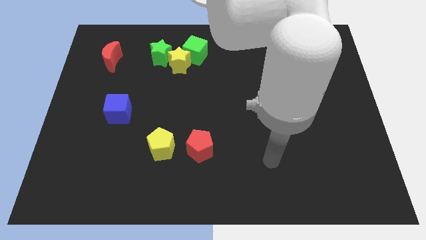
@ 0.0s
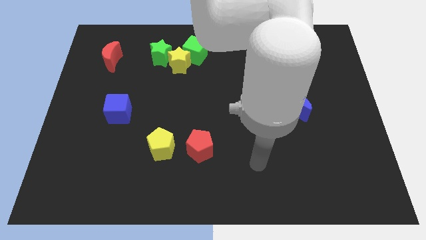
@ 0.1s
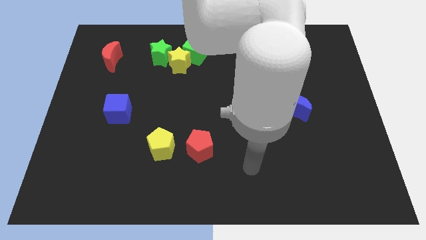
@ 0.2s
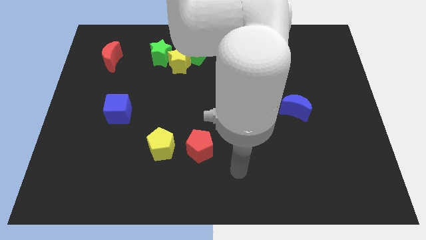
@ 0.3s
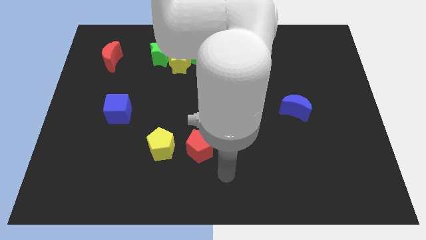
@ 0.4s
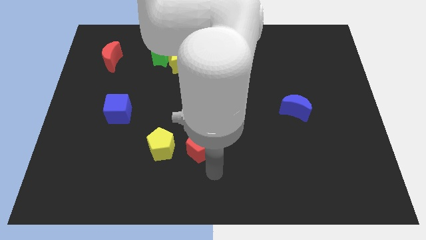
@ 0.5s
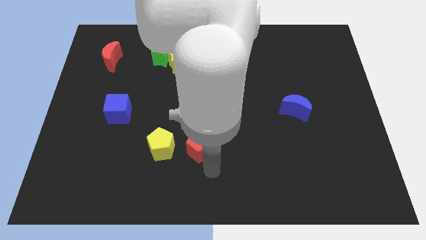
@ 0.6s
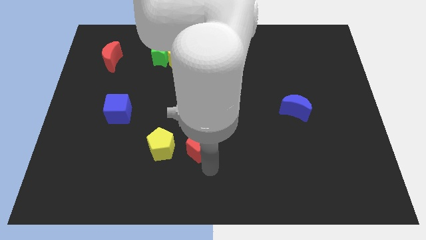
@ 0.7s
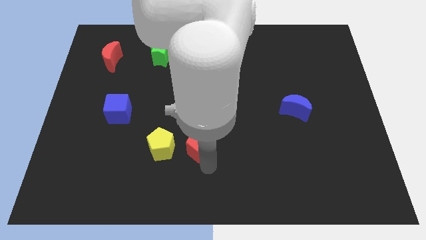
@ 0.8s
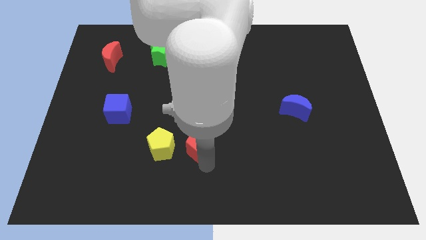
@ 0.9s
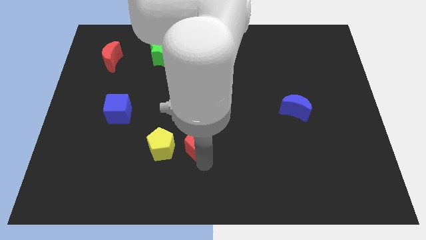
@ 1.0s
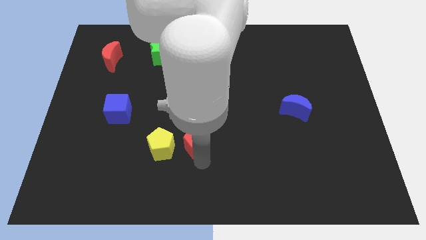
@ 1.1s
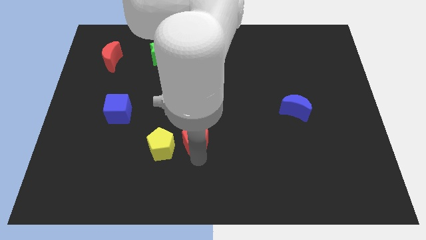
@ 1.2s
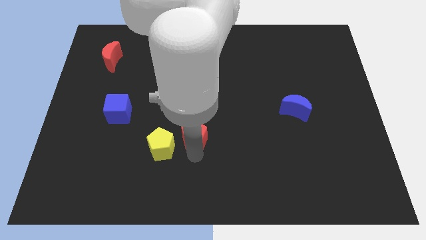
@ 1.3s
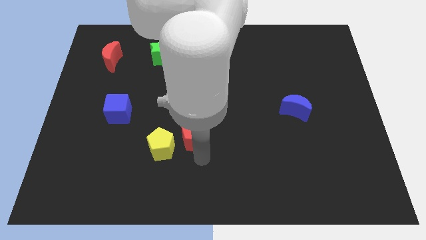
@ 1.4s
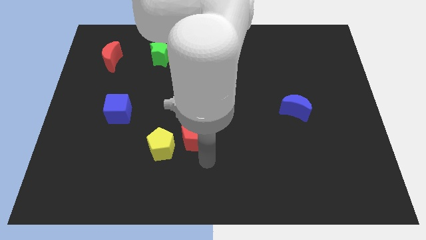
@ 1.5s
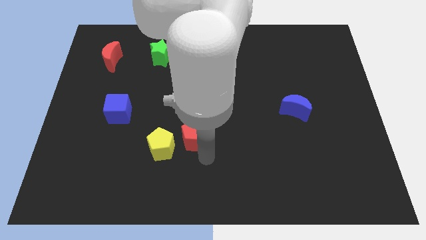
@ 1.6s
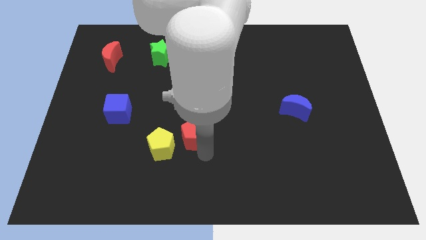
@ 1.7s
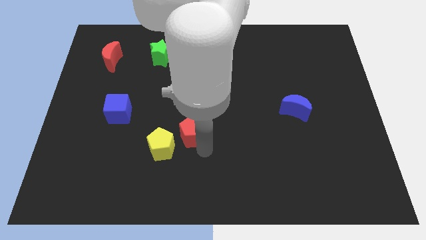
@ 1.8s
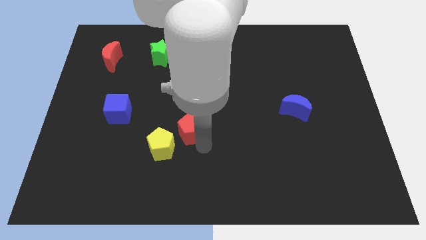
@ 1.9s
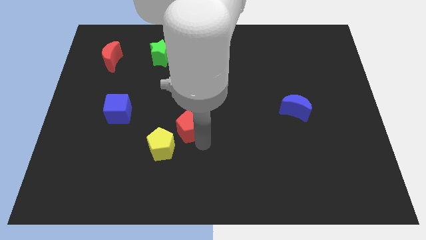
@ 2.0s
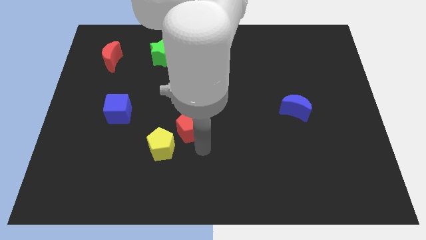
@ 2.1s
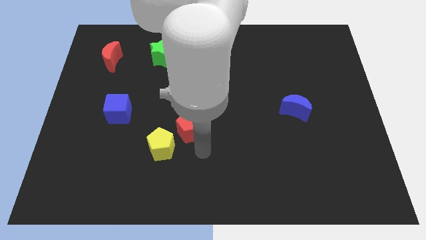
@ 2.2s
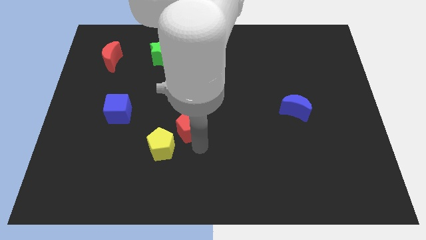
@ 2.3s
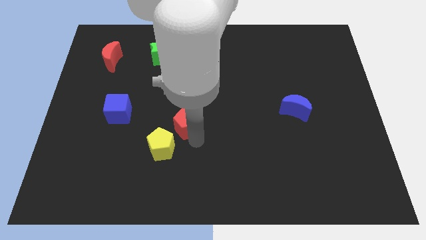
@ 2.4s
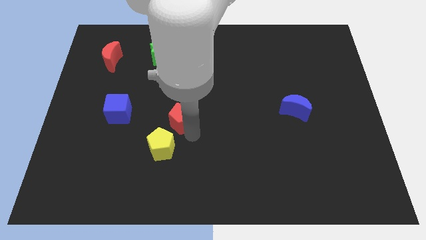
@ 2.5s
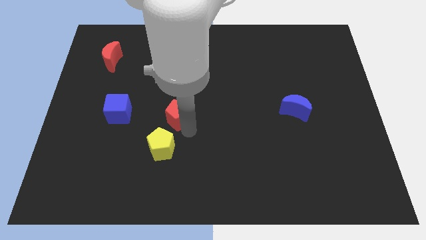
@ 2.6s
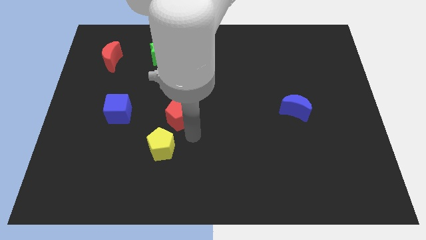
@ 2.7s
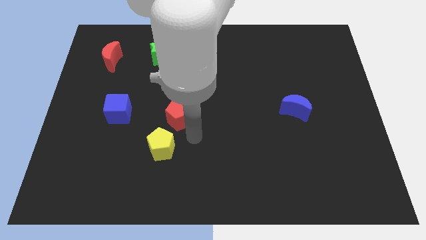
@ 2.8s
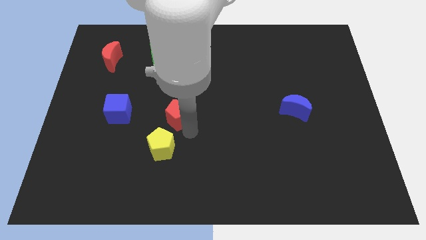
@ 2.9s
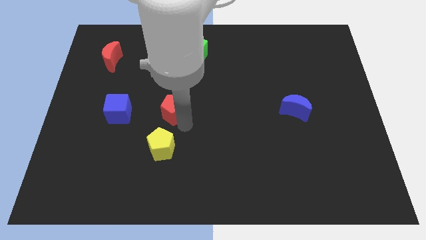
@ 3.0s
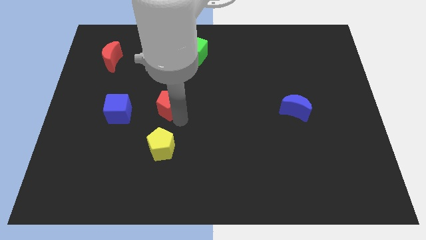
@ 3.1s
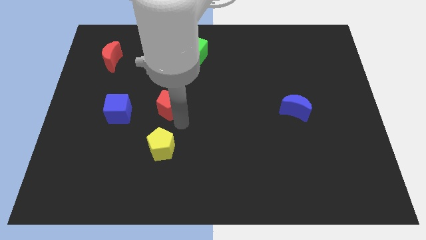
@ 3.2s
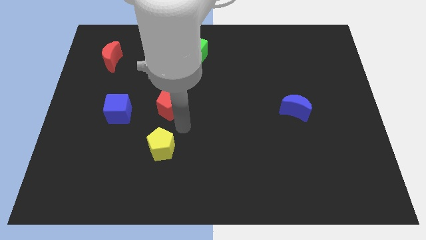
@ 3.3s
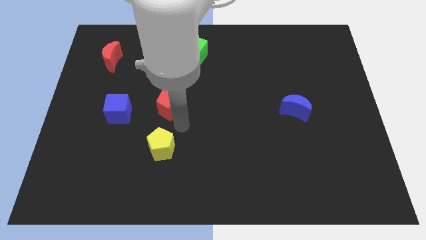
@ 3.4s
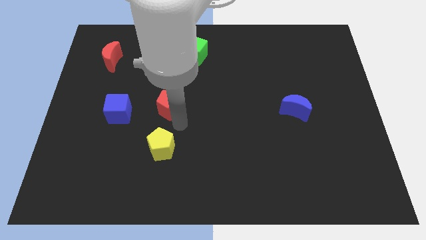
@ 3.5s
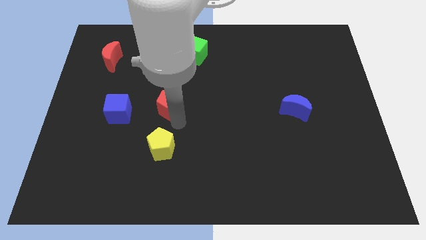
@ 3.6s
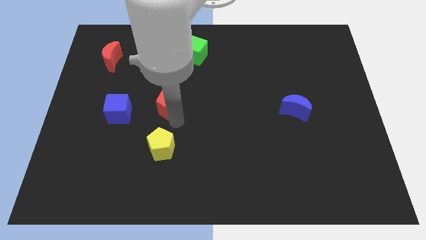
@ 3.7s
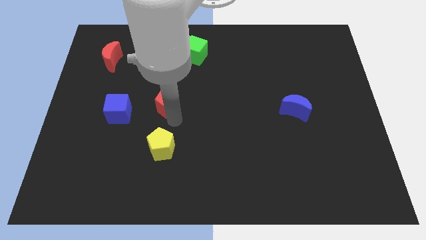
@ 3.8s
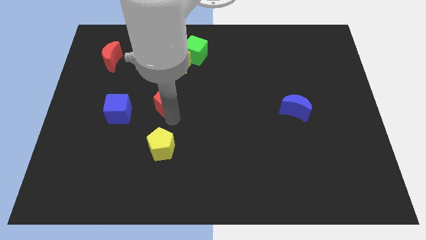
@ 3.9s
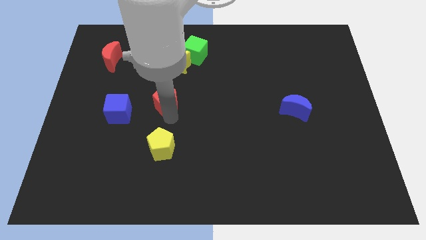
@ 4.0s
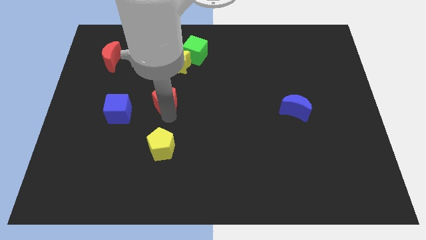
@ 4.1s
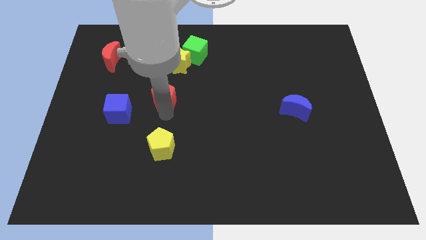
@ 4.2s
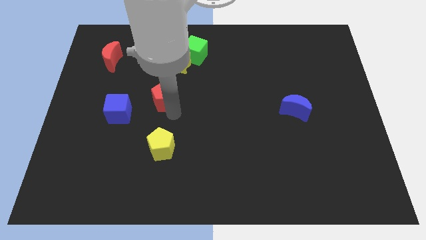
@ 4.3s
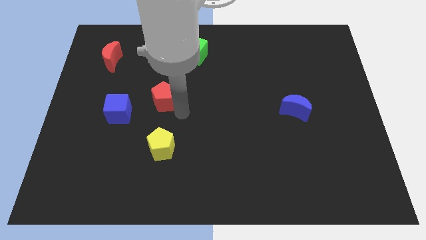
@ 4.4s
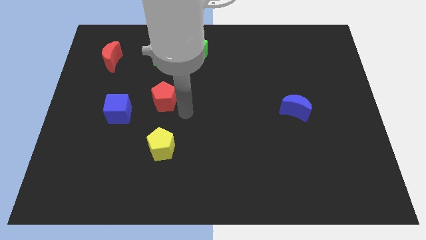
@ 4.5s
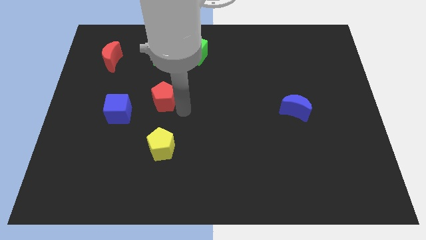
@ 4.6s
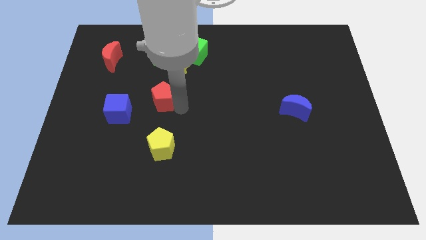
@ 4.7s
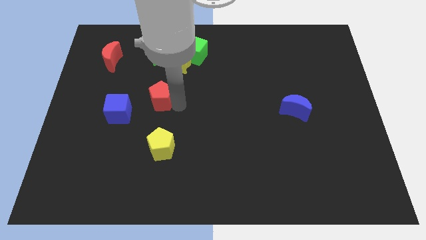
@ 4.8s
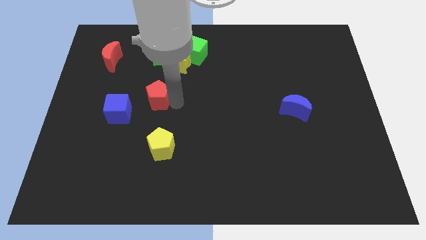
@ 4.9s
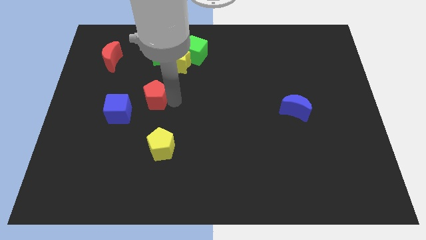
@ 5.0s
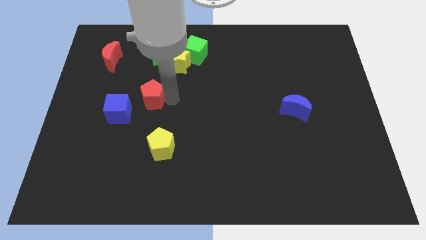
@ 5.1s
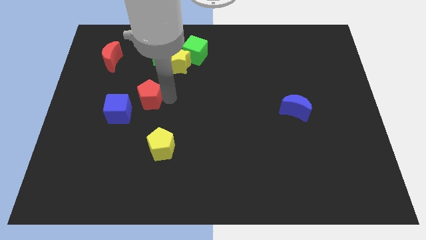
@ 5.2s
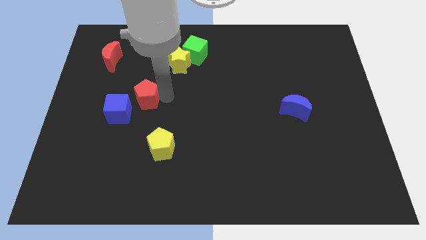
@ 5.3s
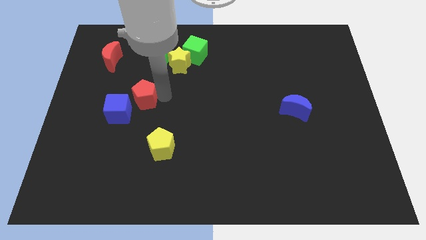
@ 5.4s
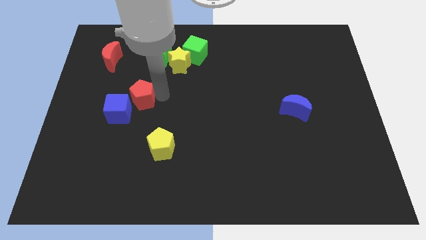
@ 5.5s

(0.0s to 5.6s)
slide the red pentagon up and then to the left

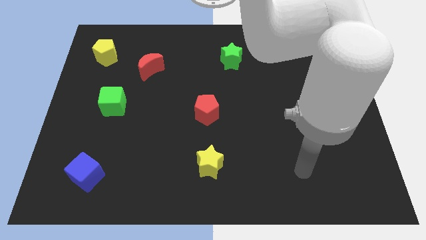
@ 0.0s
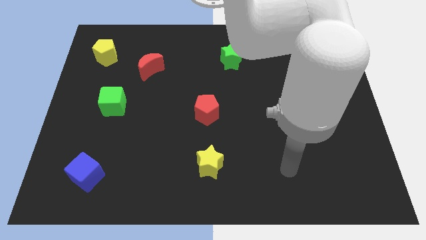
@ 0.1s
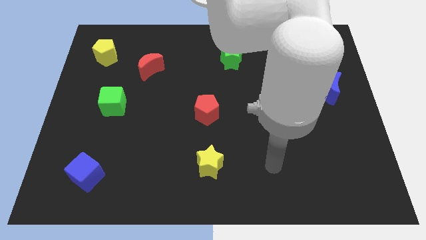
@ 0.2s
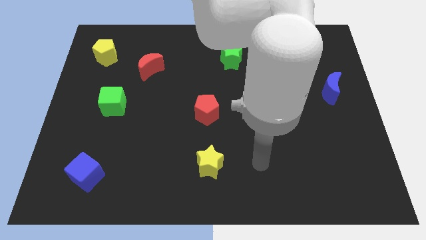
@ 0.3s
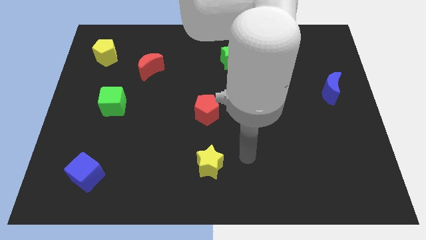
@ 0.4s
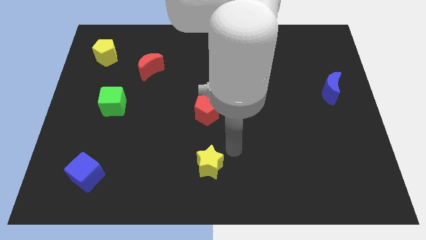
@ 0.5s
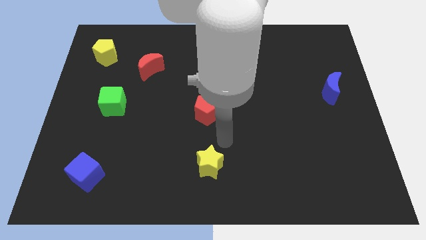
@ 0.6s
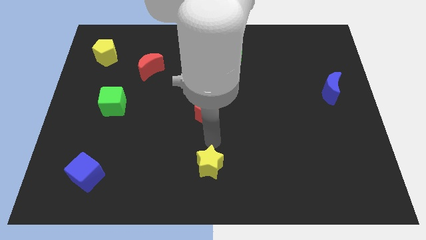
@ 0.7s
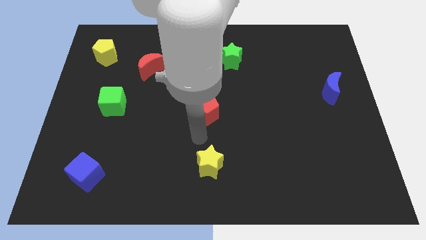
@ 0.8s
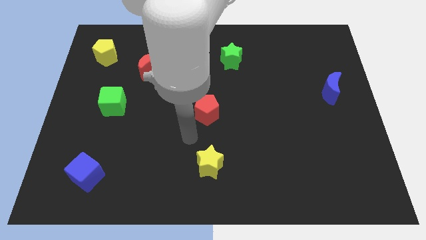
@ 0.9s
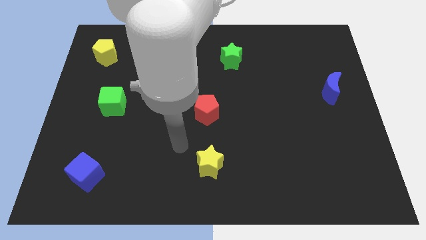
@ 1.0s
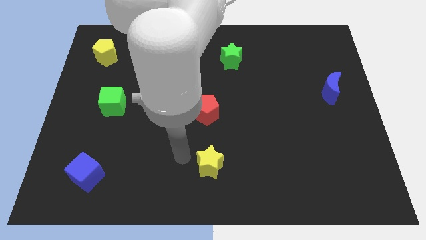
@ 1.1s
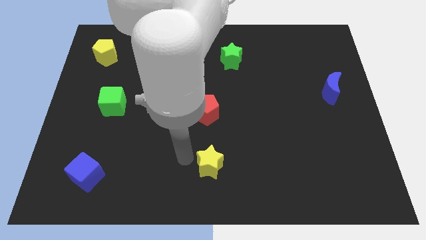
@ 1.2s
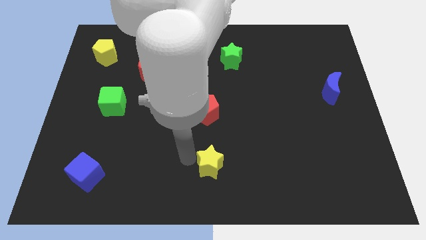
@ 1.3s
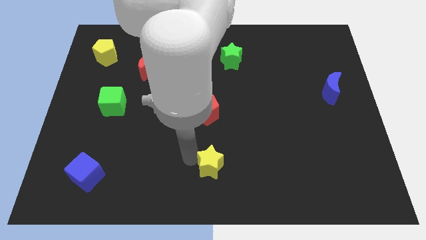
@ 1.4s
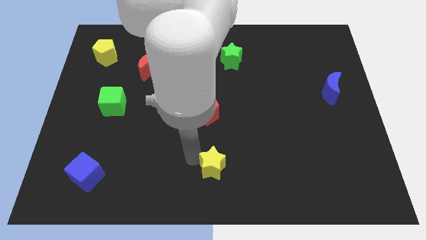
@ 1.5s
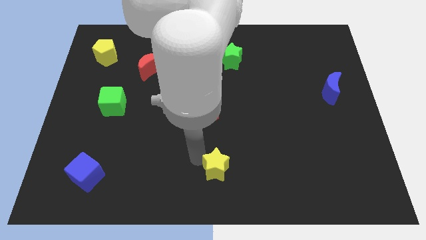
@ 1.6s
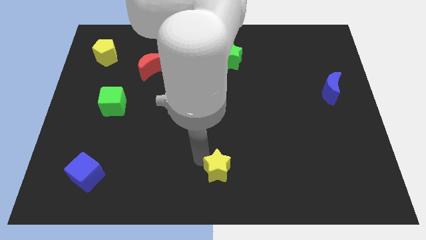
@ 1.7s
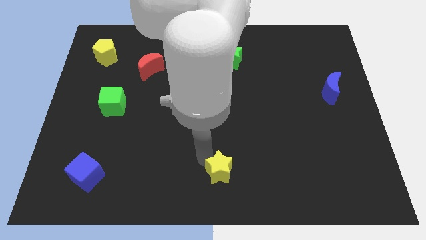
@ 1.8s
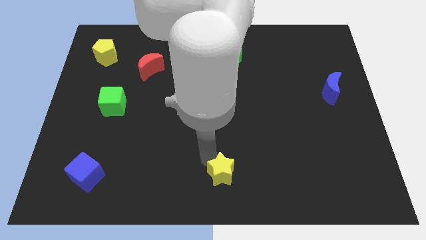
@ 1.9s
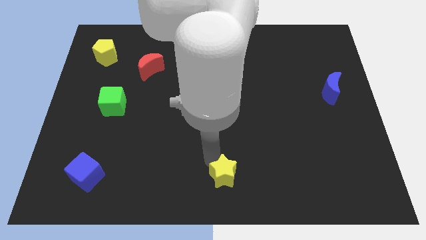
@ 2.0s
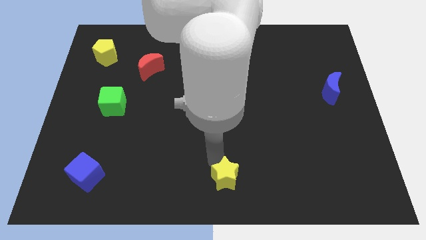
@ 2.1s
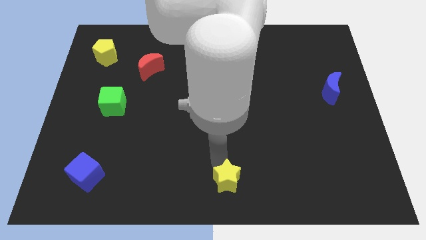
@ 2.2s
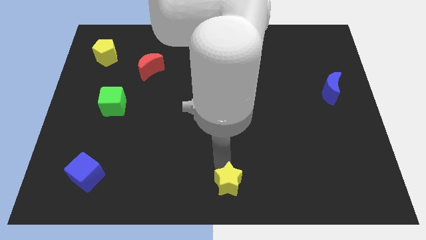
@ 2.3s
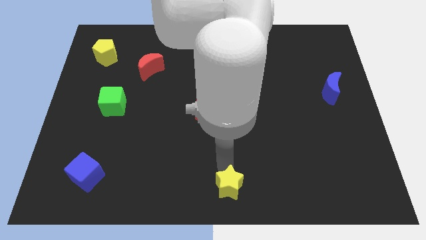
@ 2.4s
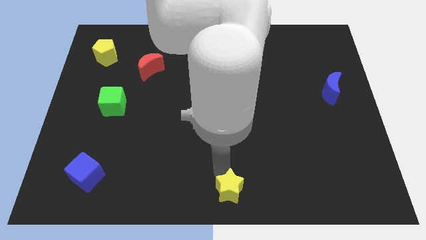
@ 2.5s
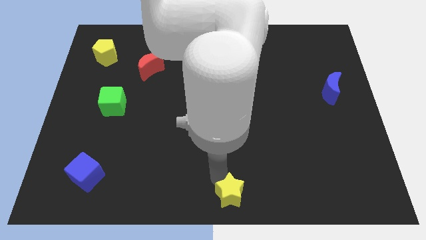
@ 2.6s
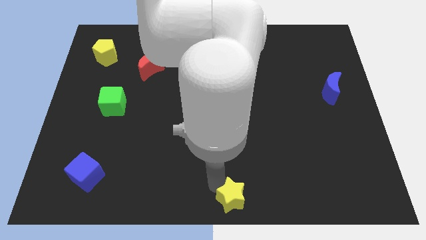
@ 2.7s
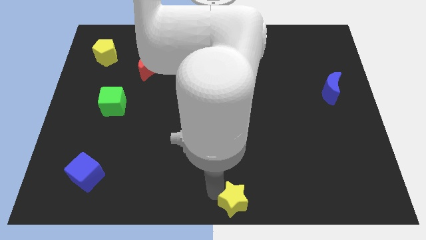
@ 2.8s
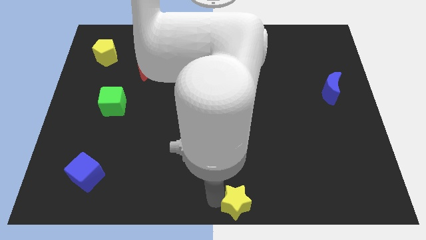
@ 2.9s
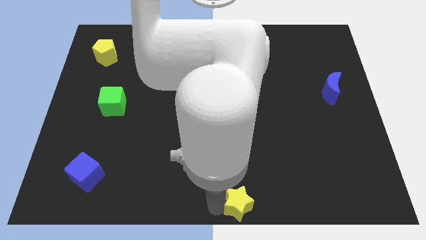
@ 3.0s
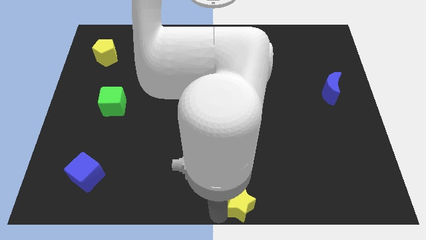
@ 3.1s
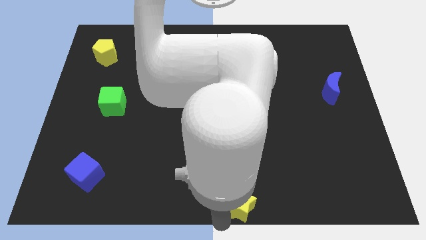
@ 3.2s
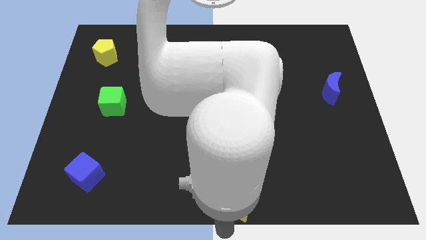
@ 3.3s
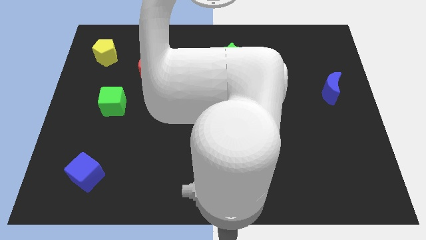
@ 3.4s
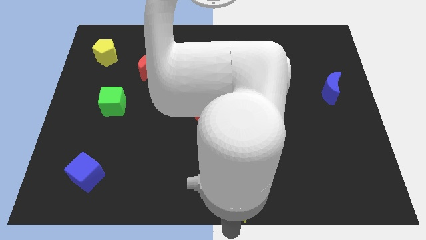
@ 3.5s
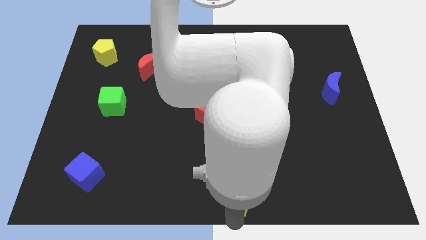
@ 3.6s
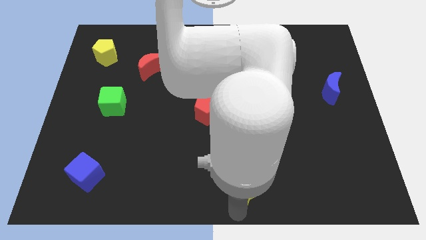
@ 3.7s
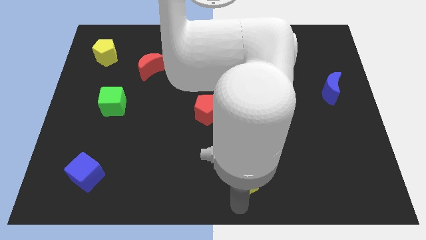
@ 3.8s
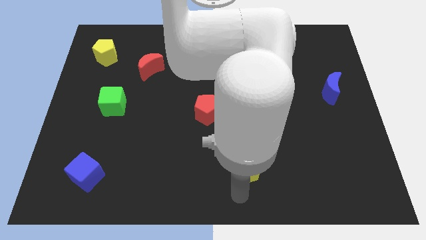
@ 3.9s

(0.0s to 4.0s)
slightly move the yellow star right
